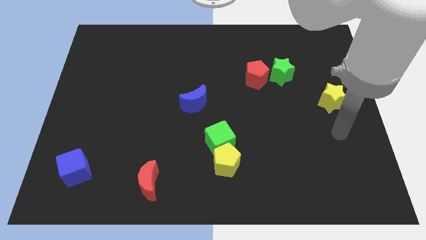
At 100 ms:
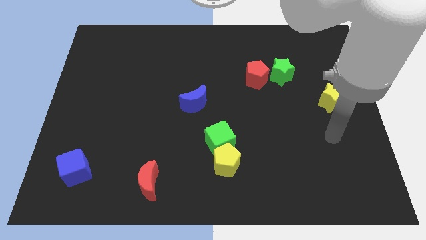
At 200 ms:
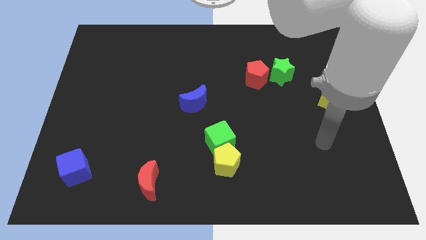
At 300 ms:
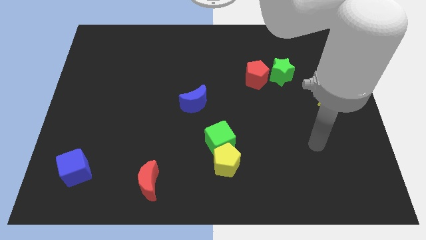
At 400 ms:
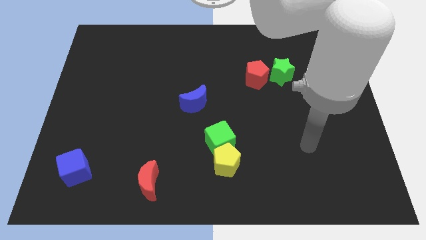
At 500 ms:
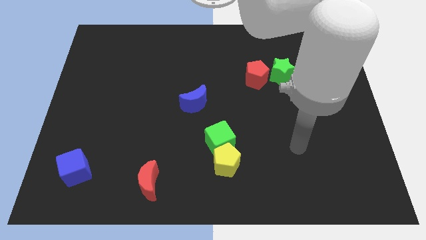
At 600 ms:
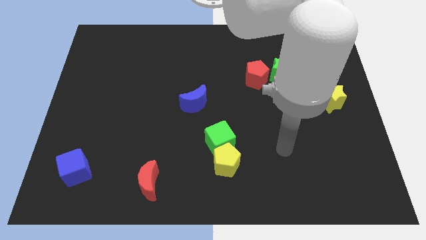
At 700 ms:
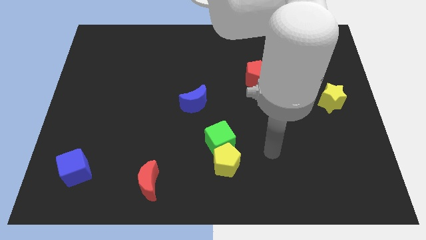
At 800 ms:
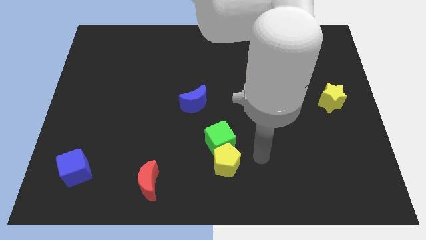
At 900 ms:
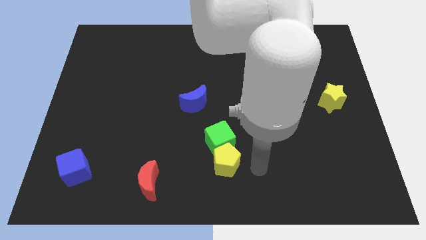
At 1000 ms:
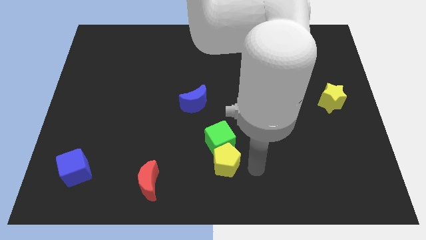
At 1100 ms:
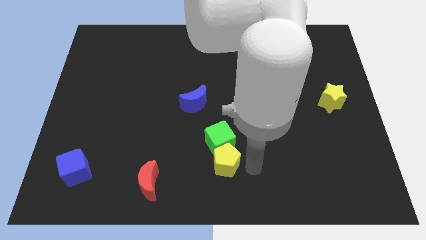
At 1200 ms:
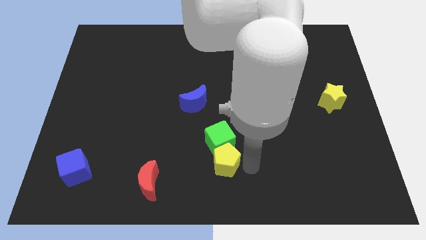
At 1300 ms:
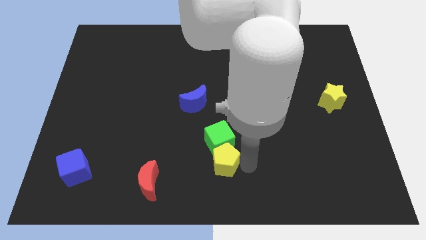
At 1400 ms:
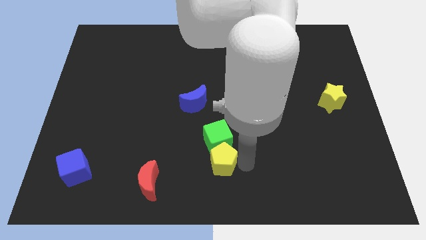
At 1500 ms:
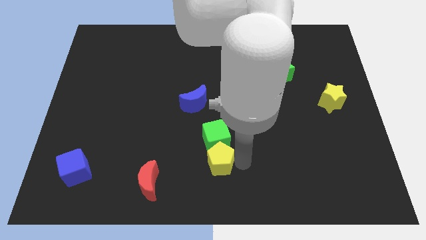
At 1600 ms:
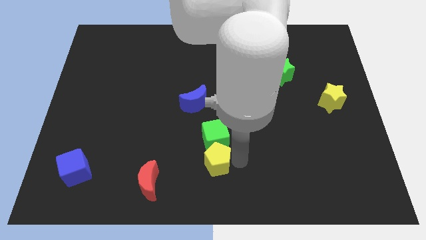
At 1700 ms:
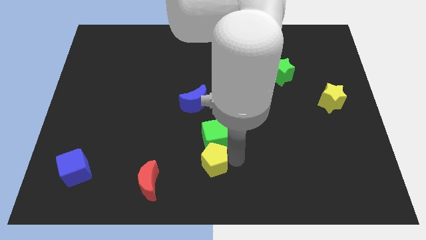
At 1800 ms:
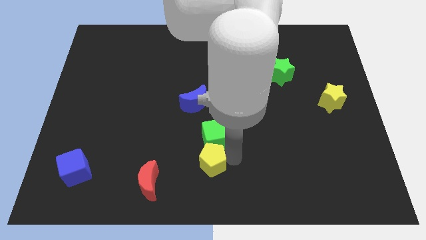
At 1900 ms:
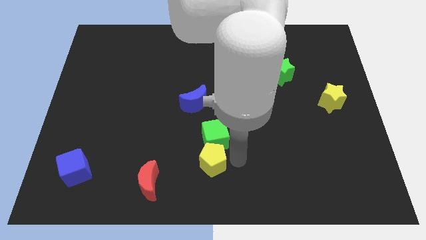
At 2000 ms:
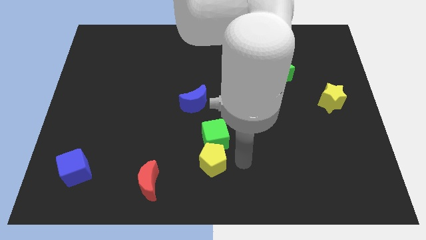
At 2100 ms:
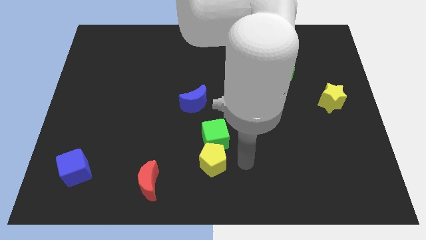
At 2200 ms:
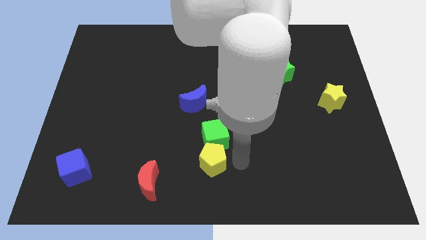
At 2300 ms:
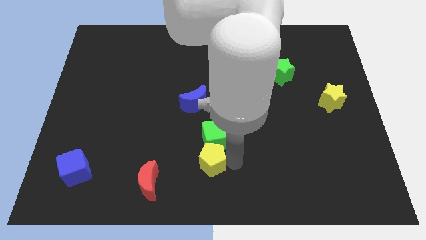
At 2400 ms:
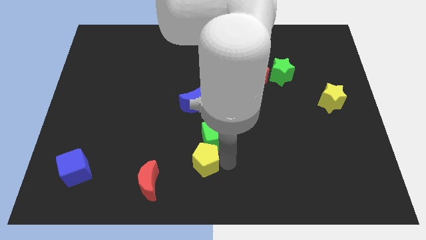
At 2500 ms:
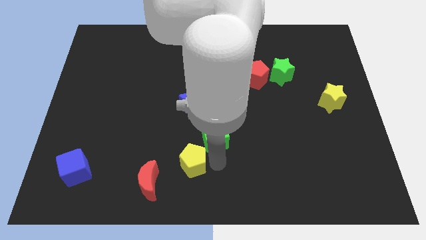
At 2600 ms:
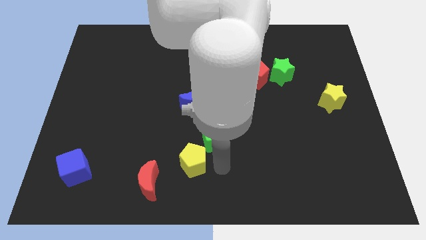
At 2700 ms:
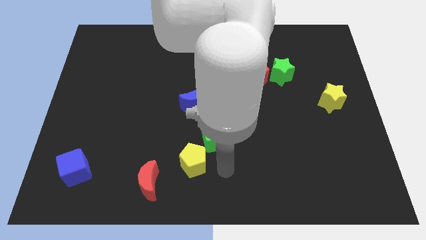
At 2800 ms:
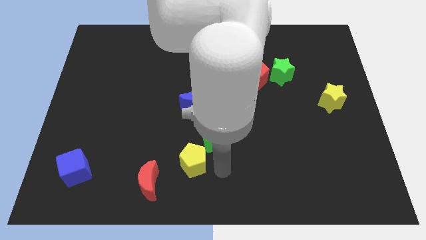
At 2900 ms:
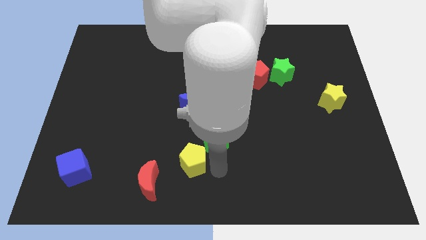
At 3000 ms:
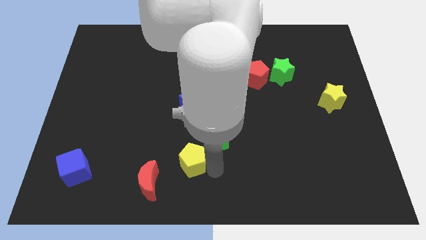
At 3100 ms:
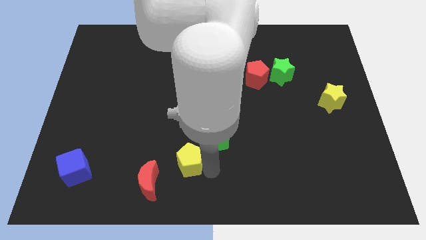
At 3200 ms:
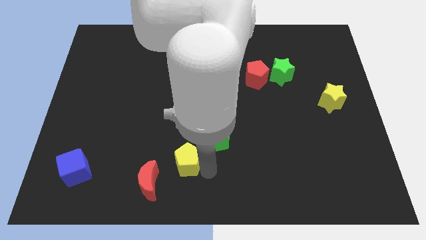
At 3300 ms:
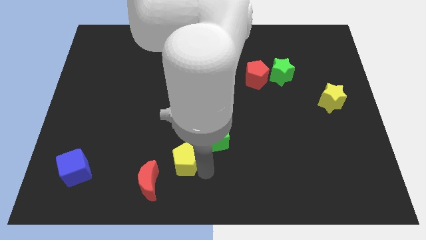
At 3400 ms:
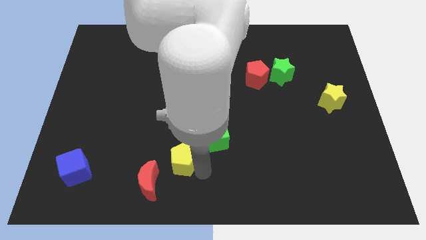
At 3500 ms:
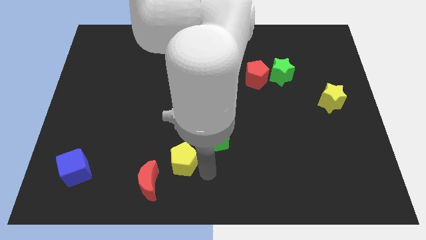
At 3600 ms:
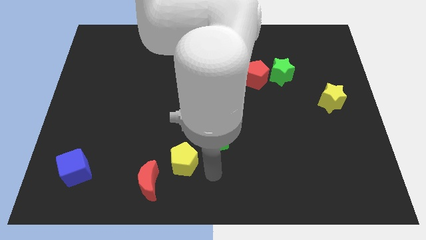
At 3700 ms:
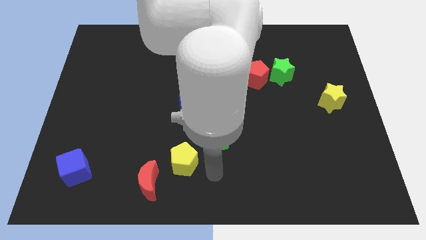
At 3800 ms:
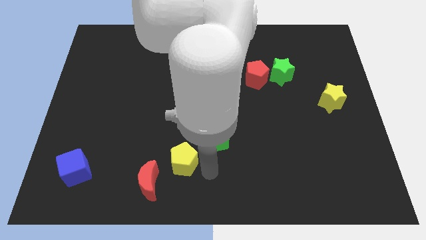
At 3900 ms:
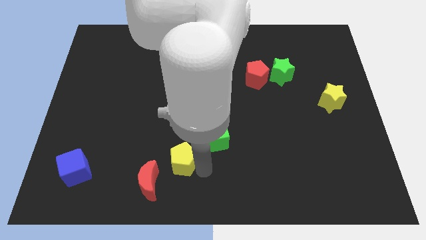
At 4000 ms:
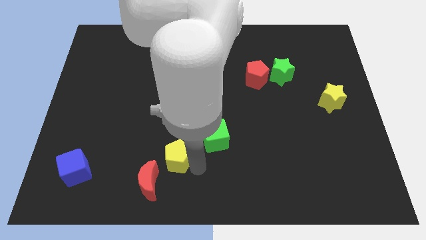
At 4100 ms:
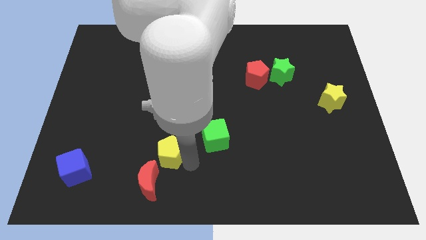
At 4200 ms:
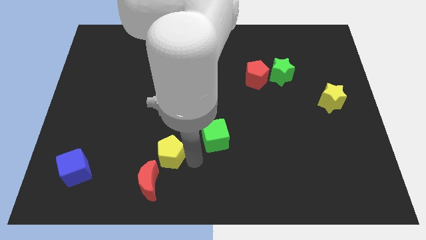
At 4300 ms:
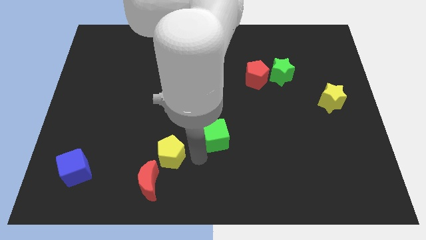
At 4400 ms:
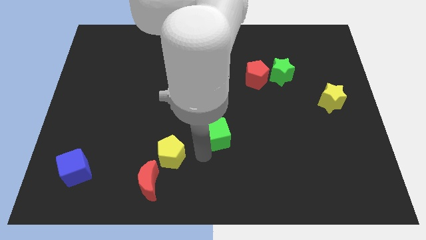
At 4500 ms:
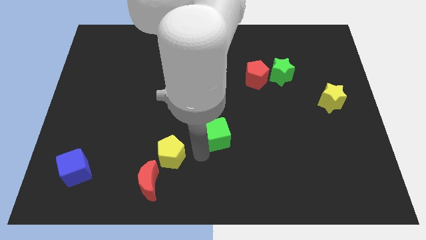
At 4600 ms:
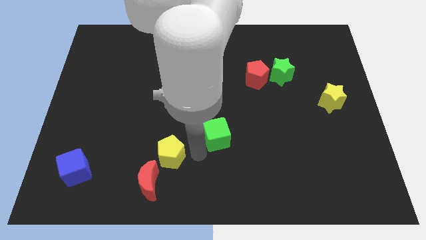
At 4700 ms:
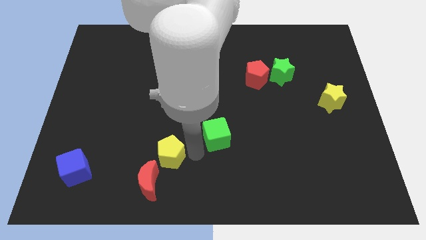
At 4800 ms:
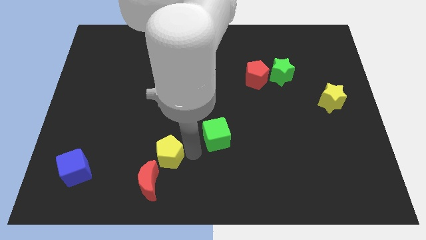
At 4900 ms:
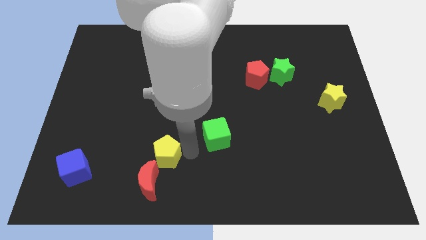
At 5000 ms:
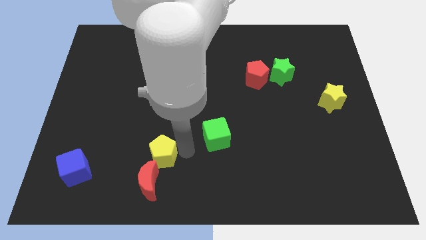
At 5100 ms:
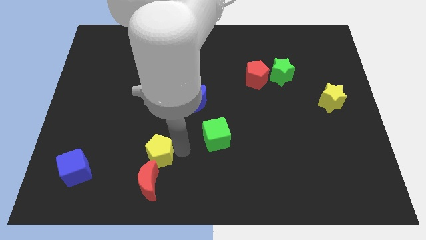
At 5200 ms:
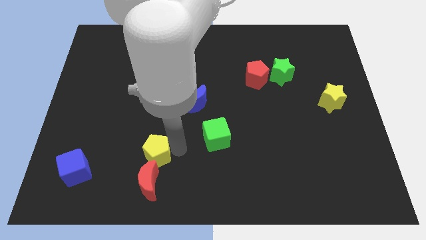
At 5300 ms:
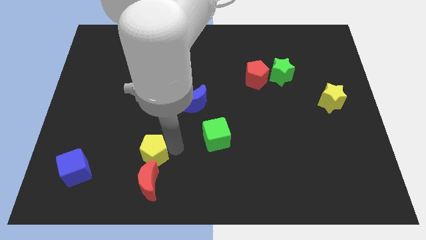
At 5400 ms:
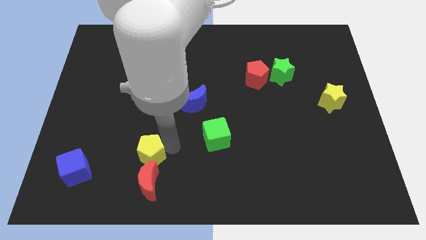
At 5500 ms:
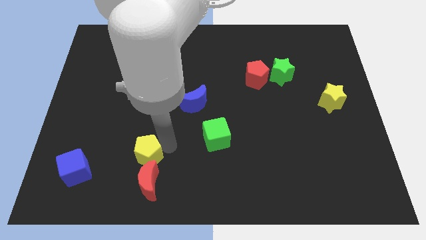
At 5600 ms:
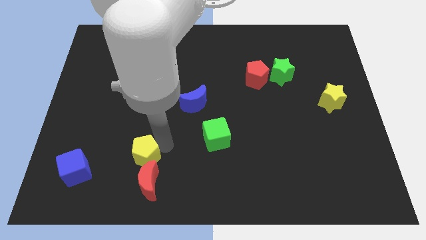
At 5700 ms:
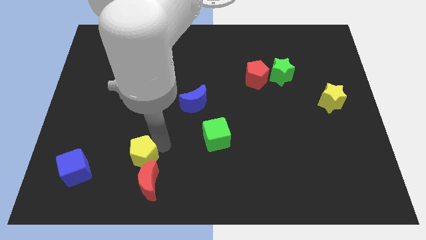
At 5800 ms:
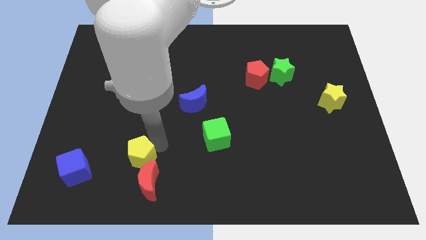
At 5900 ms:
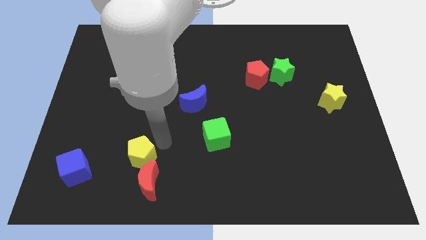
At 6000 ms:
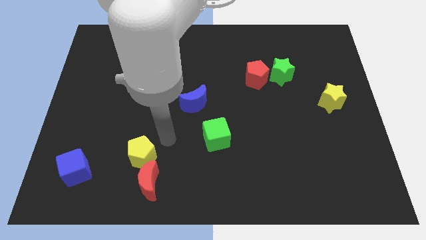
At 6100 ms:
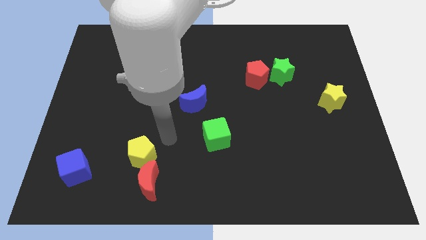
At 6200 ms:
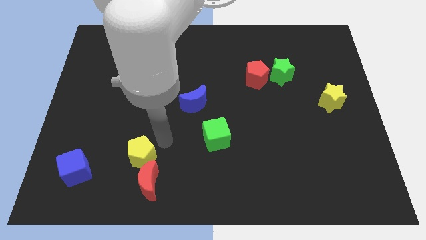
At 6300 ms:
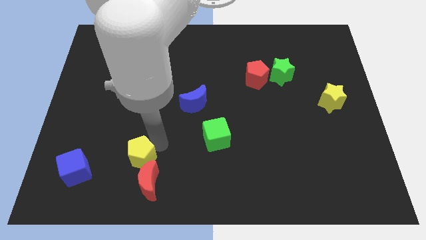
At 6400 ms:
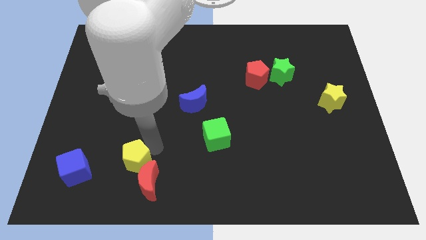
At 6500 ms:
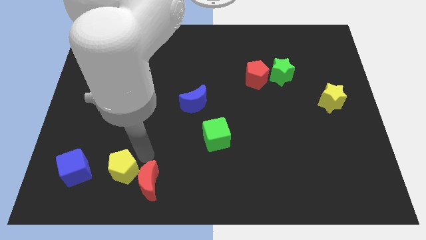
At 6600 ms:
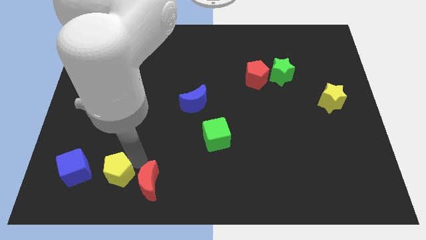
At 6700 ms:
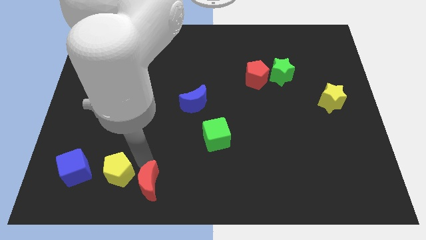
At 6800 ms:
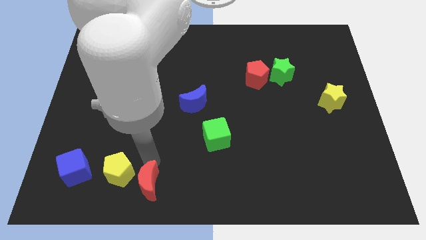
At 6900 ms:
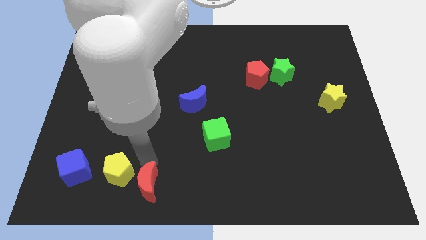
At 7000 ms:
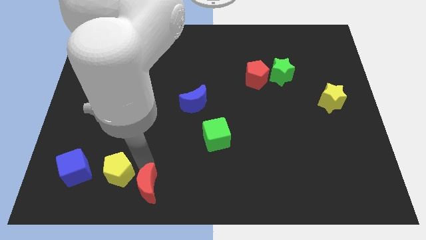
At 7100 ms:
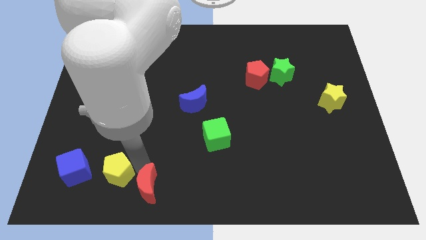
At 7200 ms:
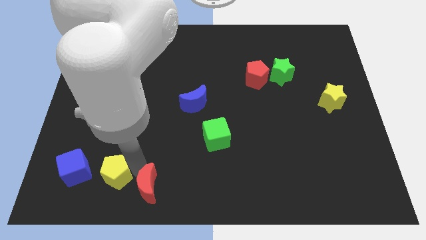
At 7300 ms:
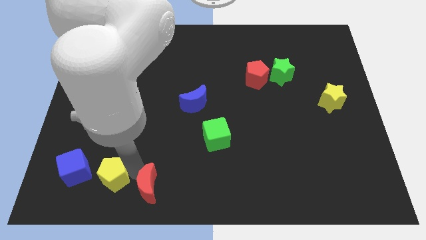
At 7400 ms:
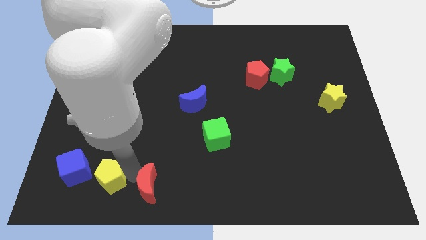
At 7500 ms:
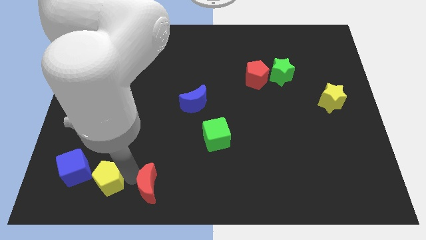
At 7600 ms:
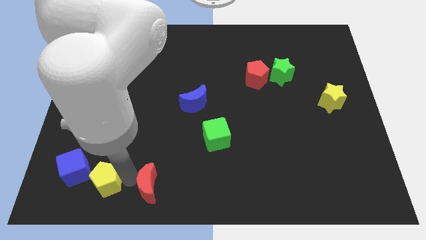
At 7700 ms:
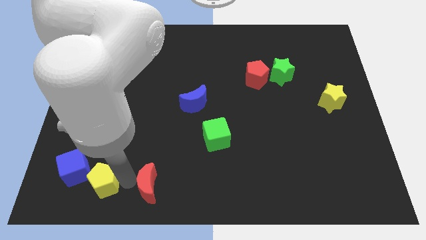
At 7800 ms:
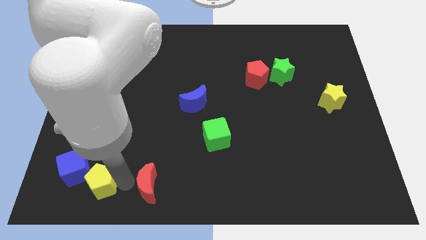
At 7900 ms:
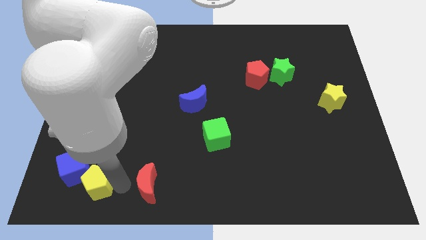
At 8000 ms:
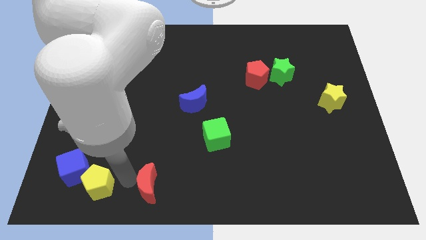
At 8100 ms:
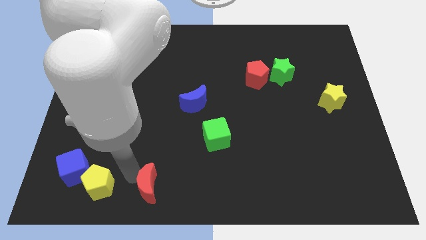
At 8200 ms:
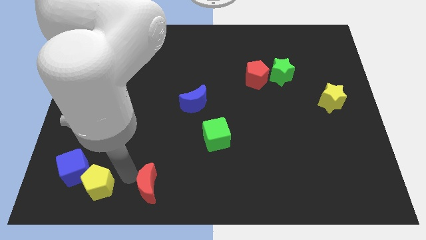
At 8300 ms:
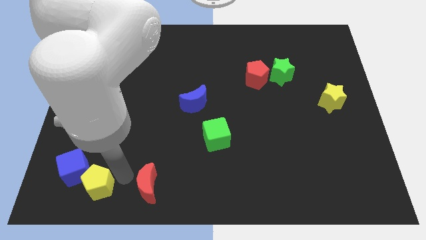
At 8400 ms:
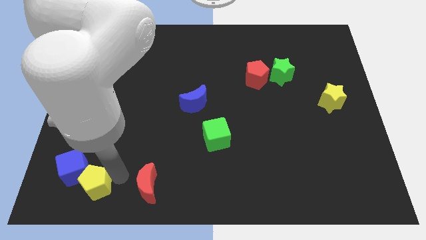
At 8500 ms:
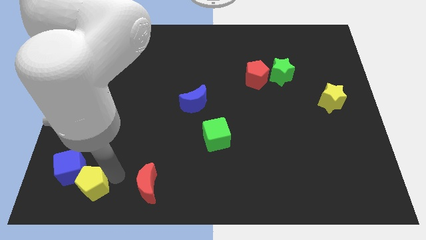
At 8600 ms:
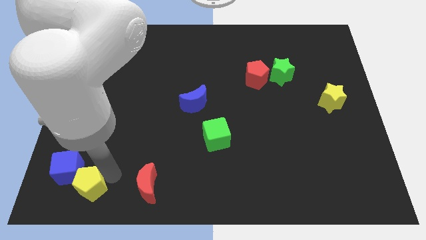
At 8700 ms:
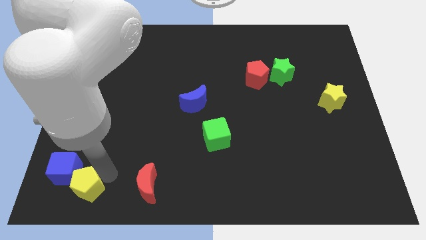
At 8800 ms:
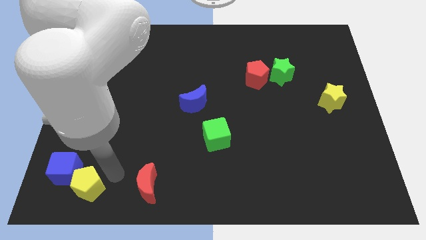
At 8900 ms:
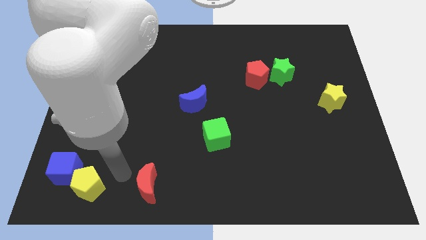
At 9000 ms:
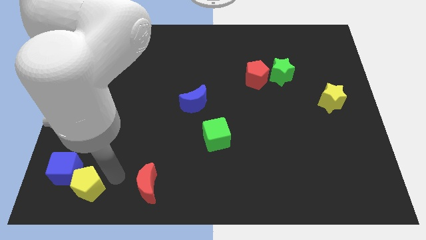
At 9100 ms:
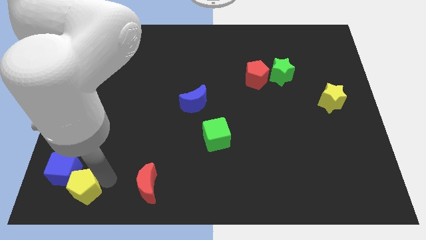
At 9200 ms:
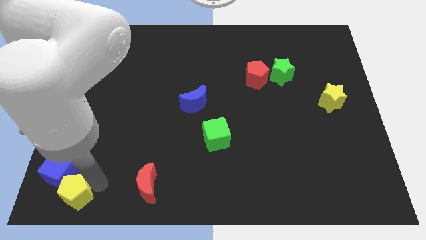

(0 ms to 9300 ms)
put the yellow pentagon to the lower left corner
